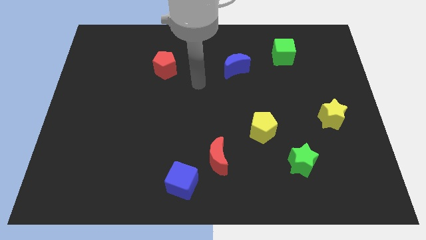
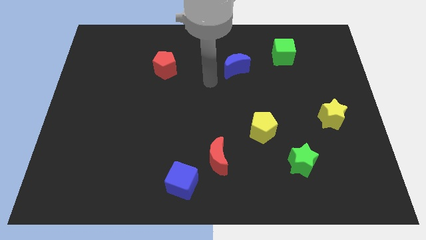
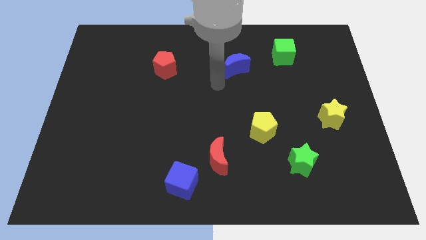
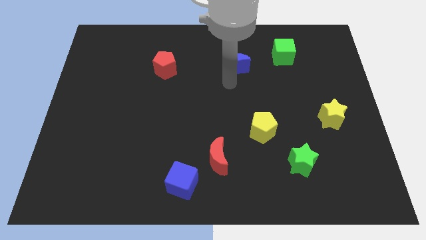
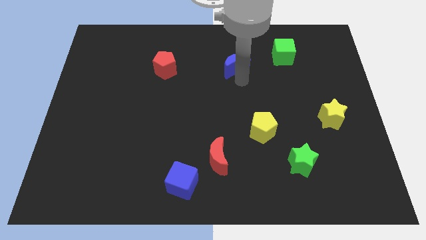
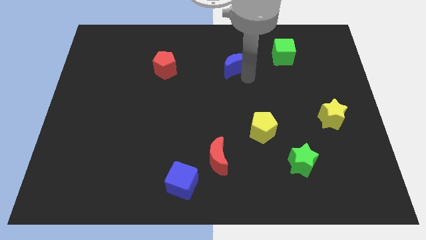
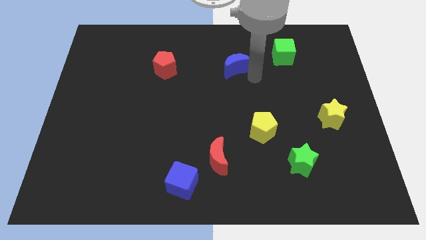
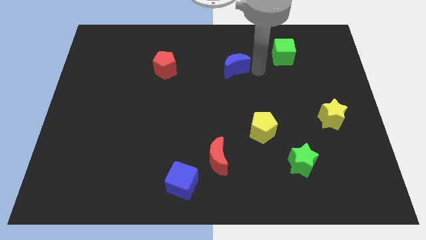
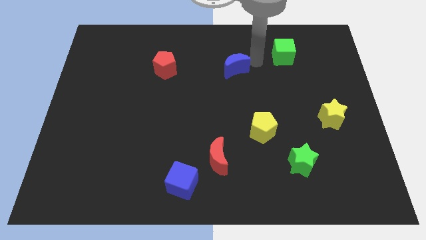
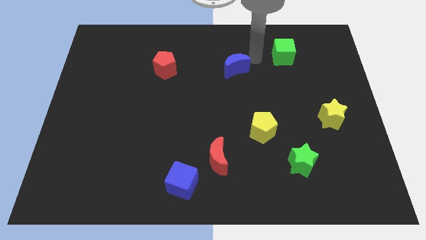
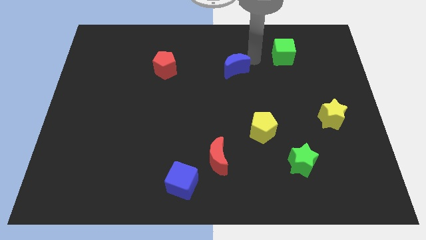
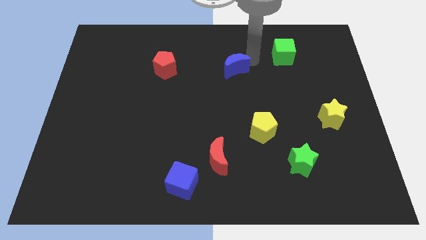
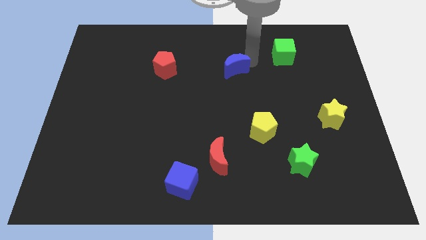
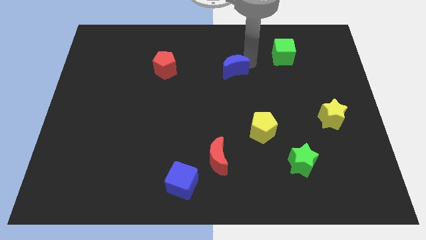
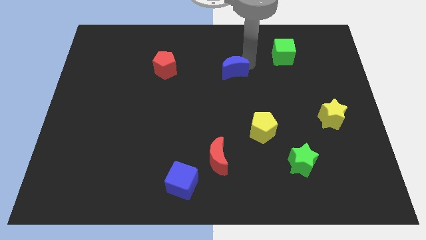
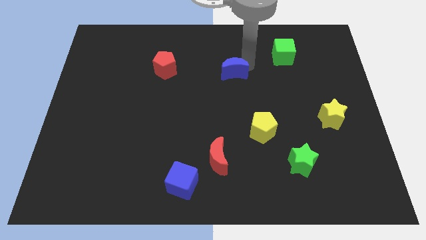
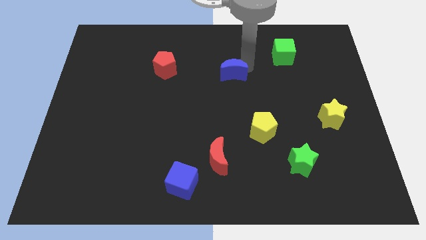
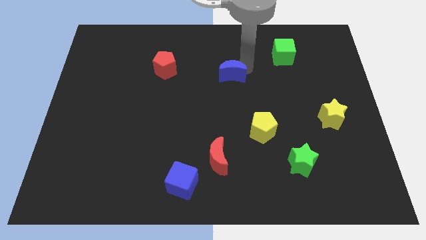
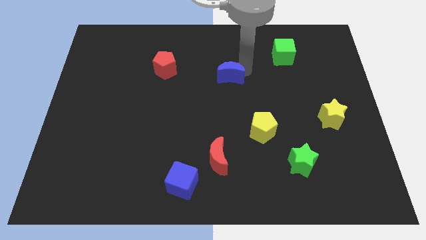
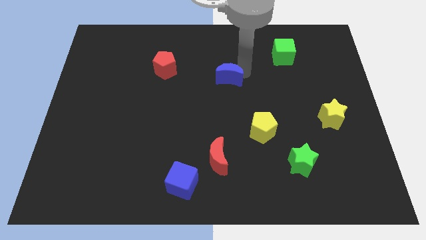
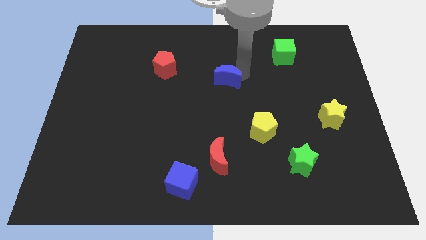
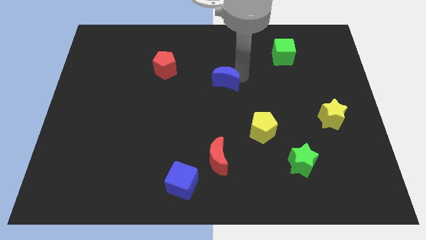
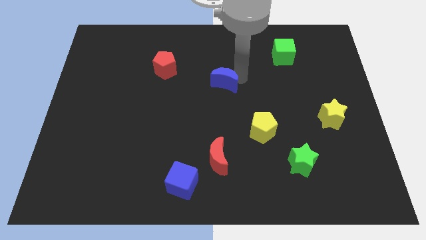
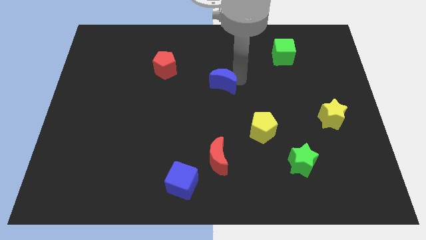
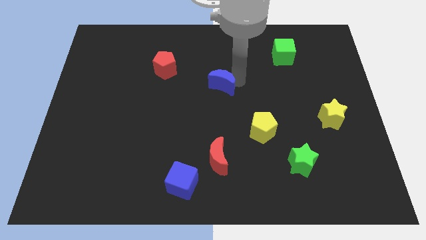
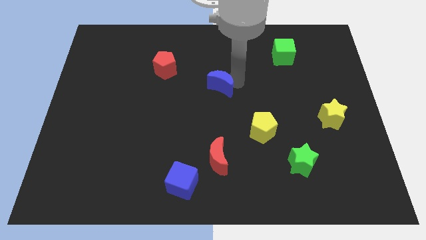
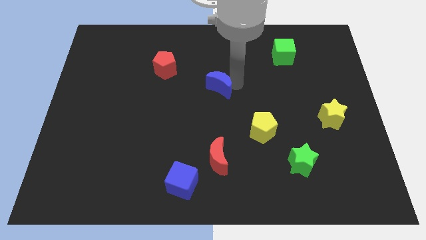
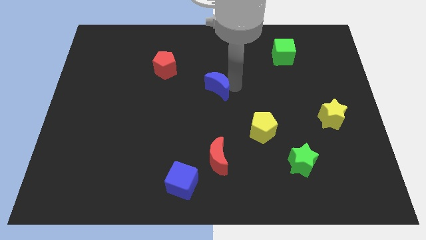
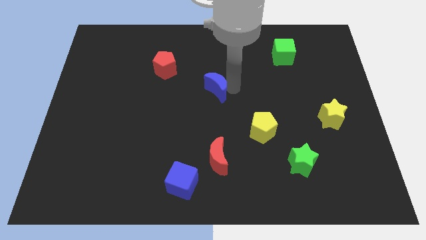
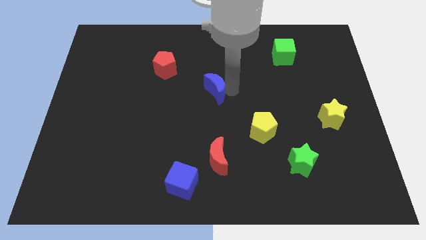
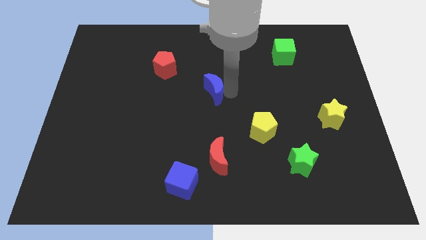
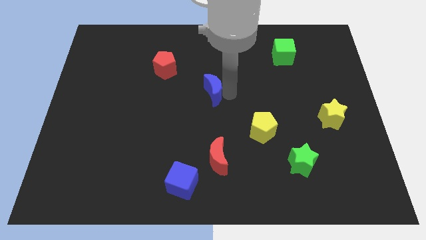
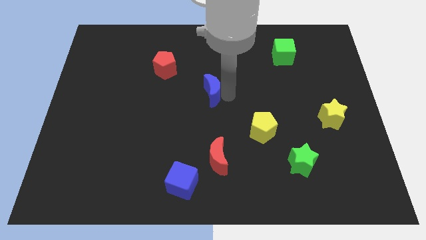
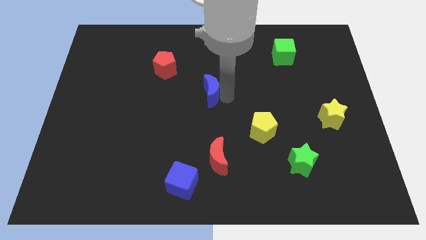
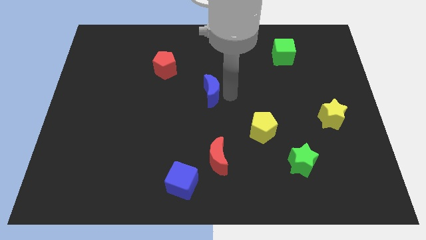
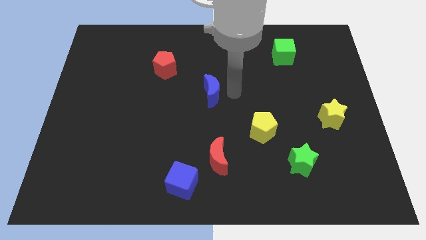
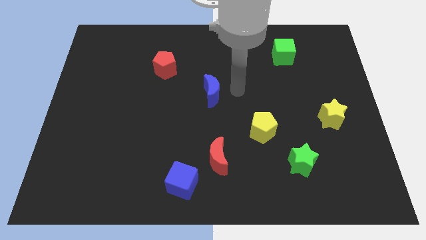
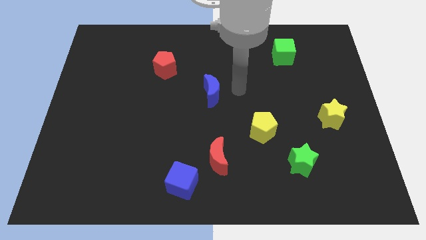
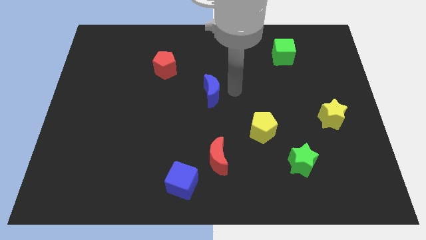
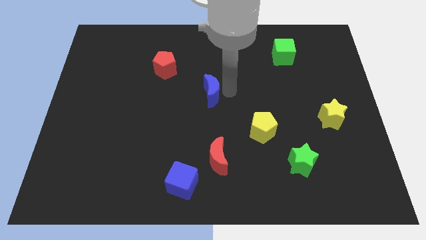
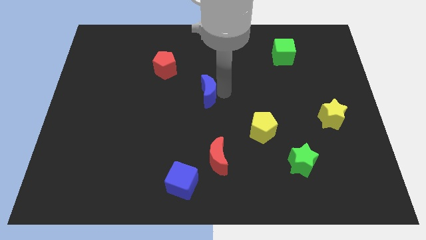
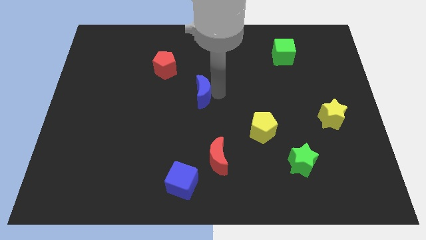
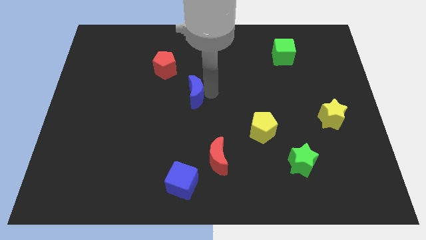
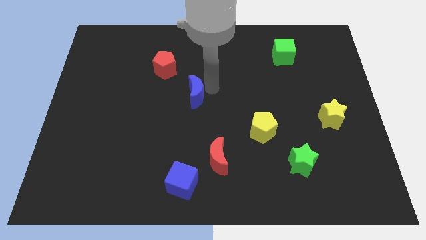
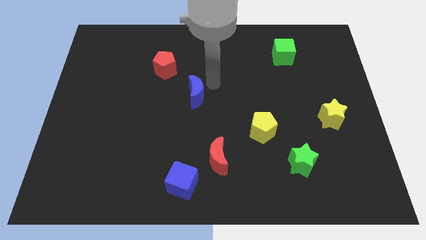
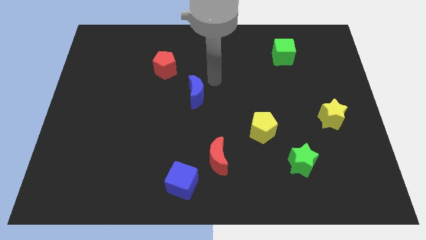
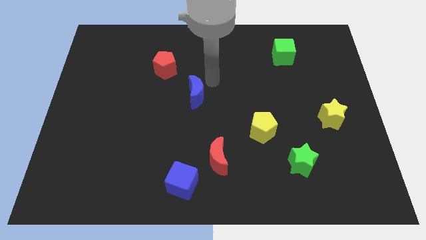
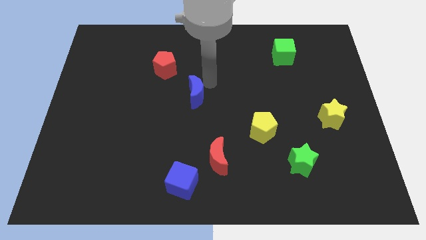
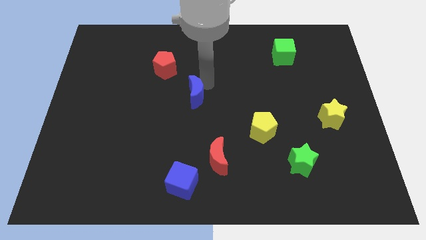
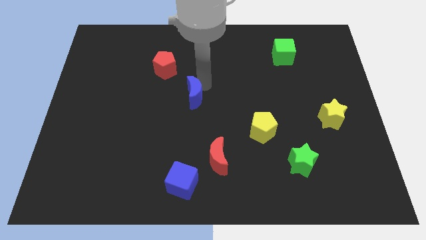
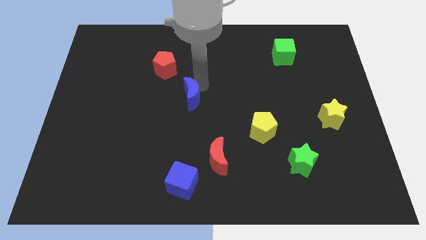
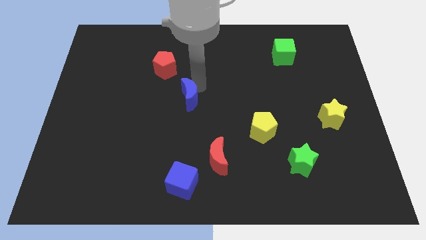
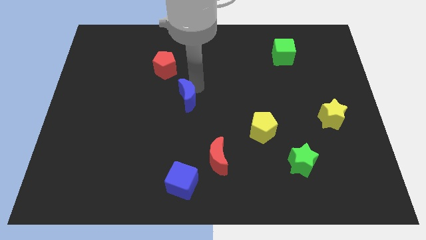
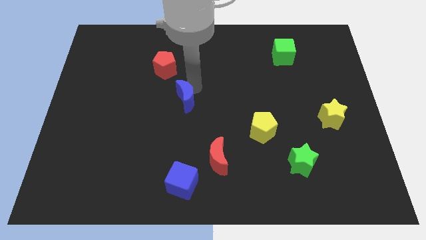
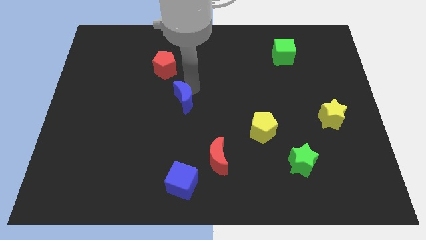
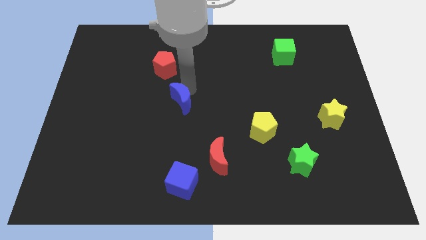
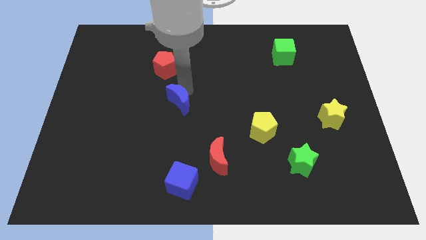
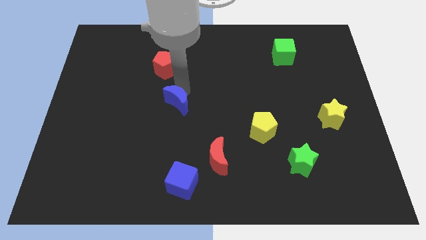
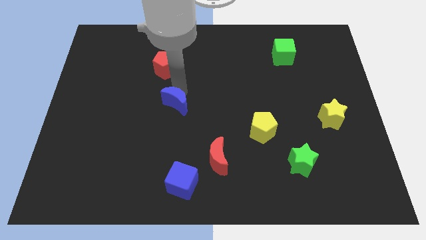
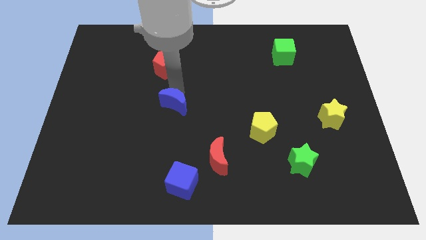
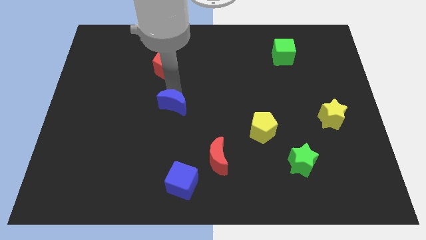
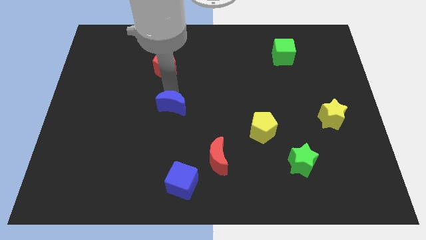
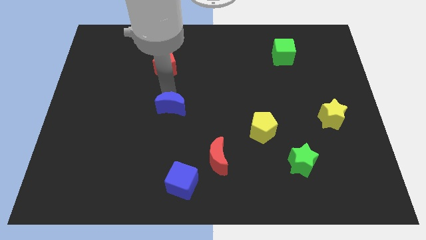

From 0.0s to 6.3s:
slide the blue moon down and left diagonally

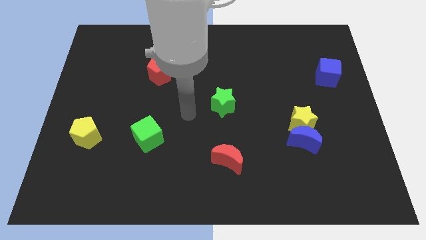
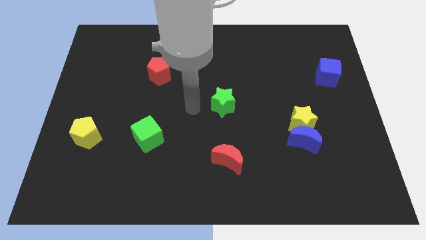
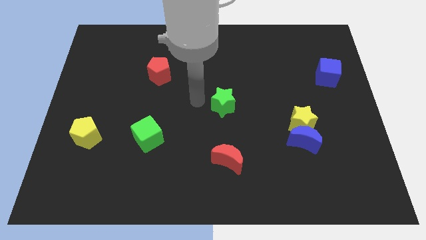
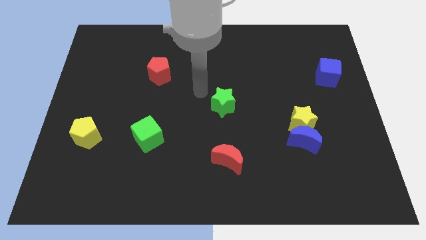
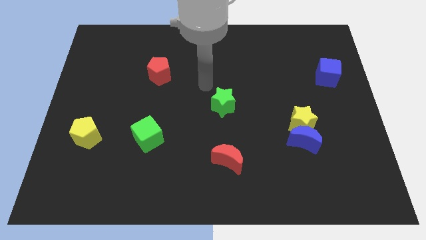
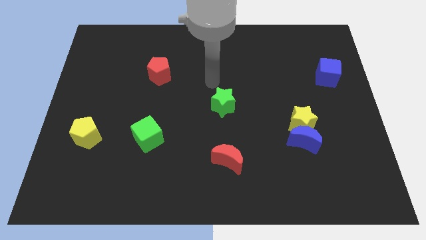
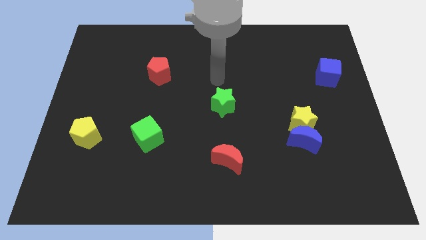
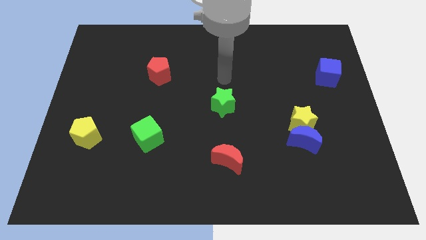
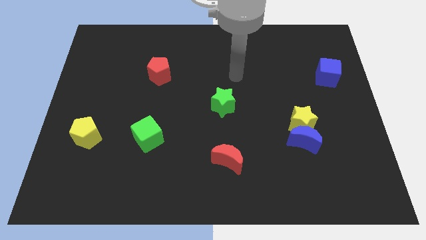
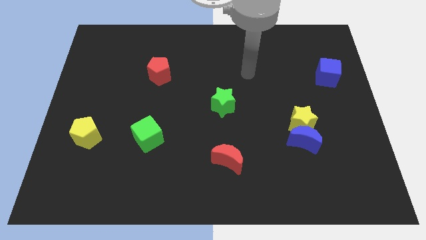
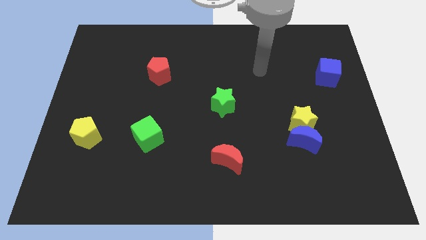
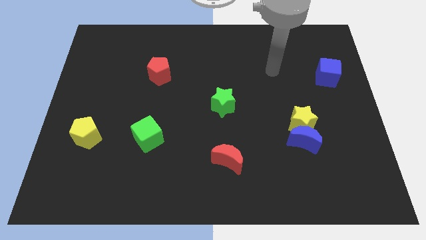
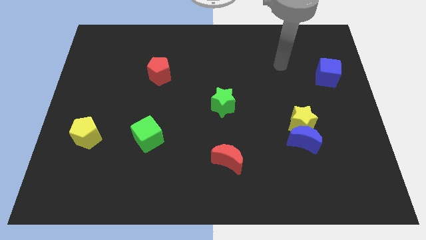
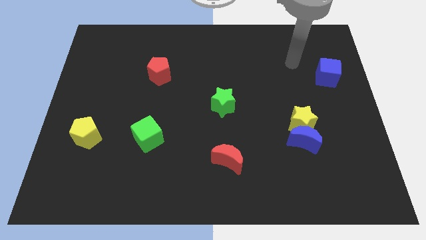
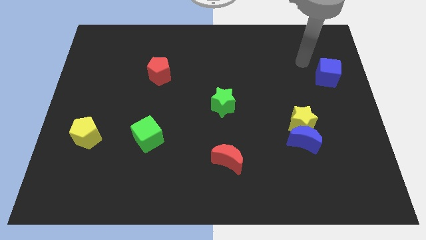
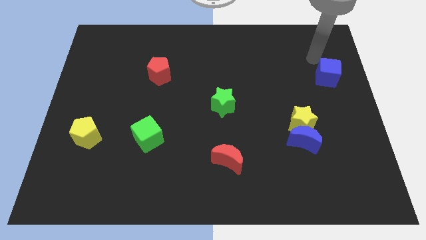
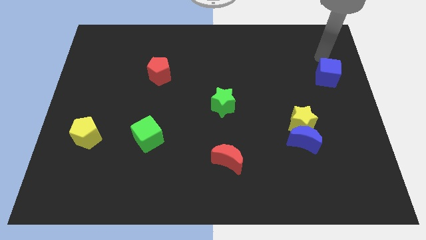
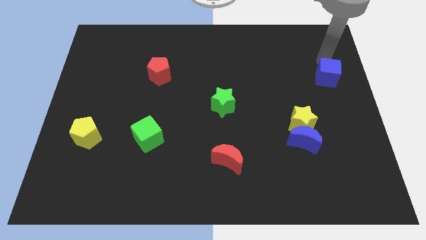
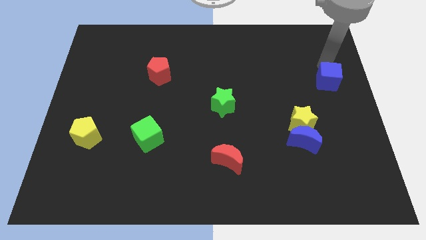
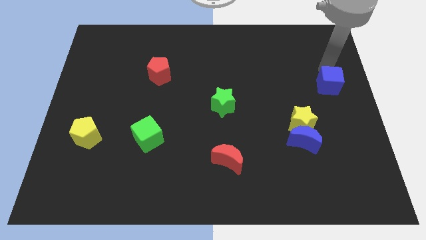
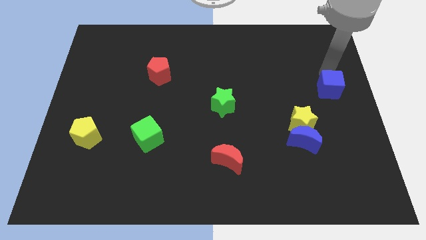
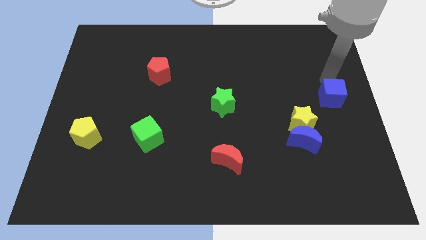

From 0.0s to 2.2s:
push the blue cube downwards somewhat
